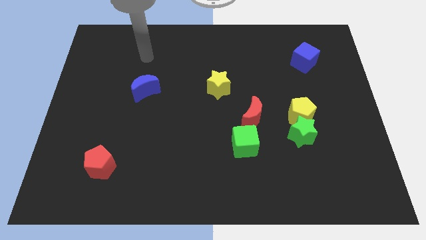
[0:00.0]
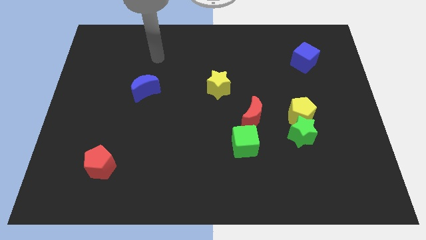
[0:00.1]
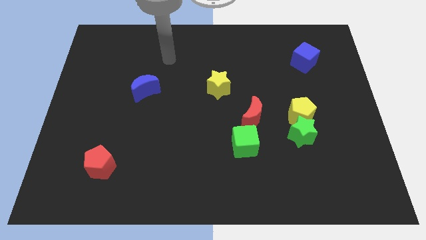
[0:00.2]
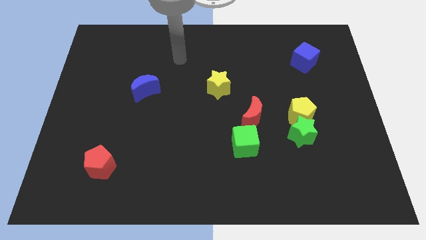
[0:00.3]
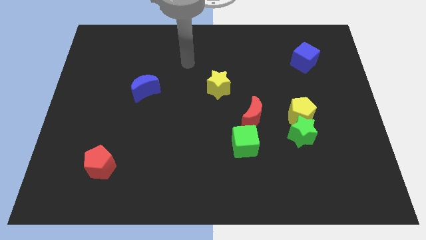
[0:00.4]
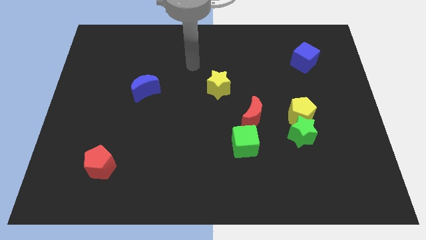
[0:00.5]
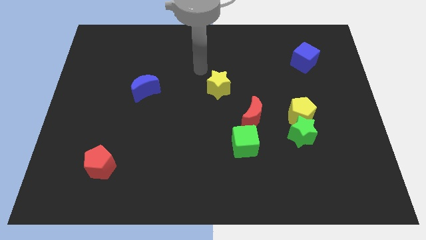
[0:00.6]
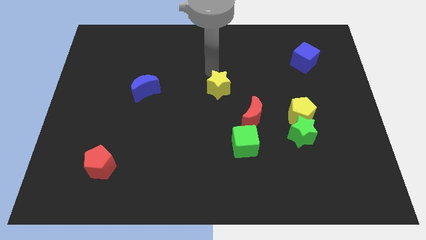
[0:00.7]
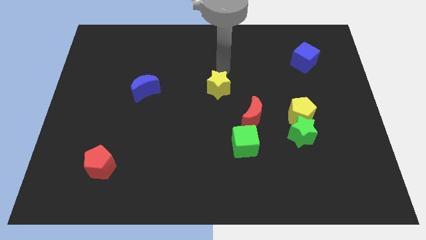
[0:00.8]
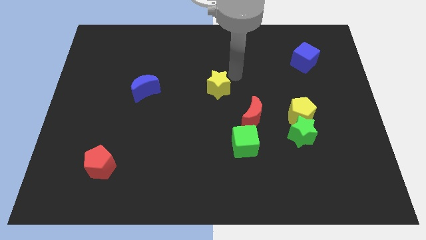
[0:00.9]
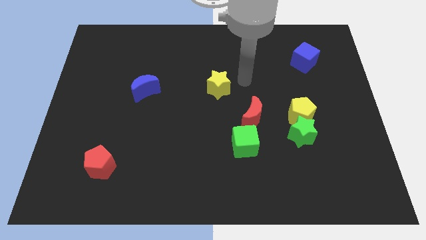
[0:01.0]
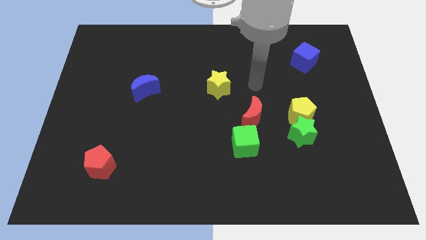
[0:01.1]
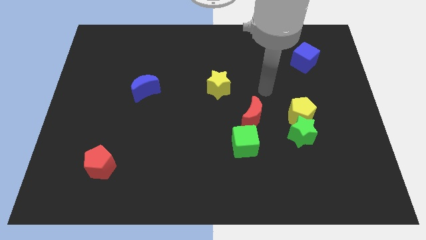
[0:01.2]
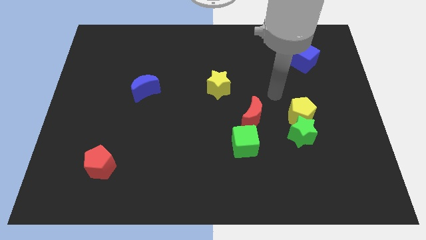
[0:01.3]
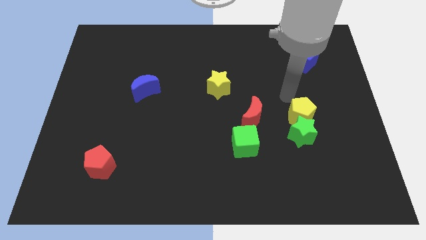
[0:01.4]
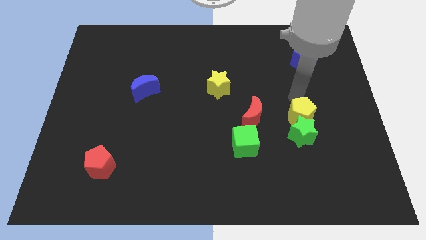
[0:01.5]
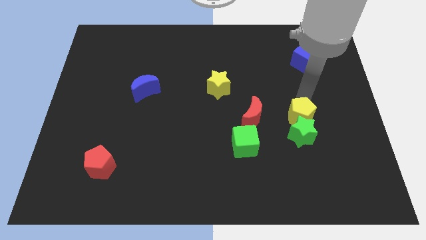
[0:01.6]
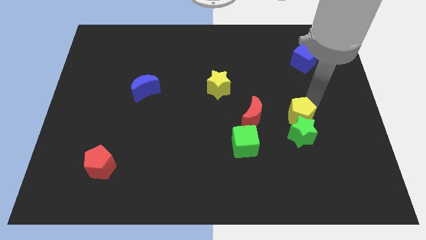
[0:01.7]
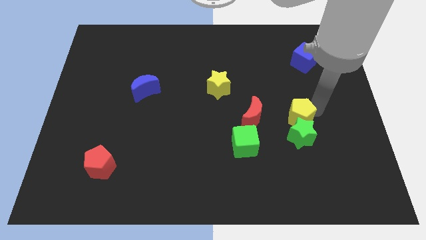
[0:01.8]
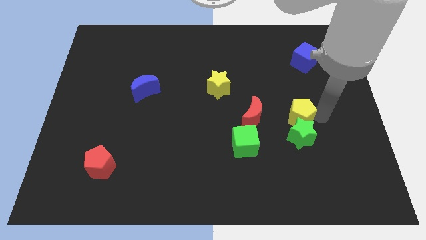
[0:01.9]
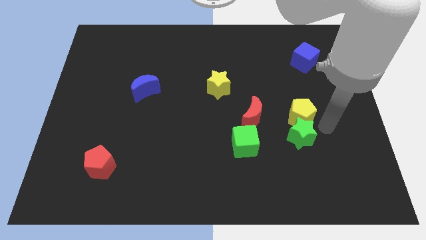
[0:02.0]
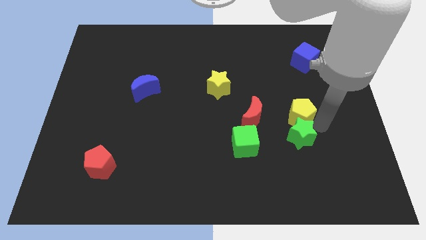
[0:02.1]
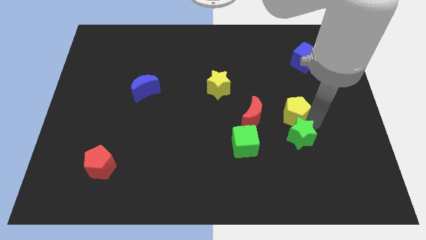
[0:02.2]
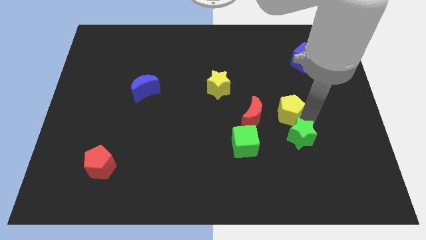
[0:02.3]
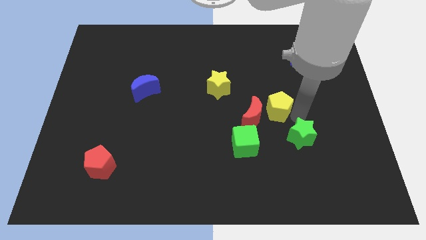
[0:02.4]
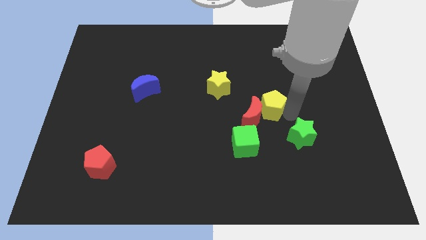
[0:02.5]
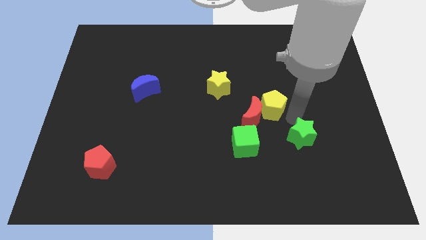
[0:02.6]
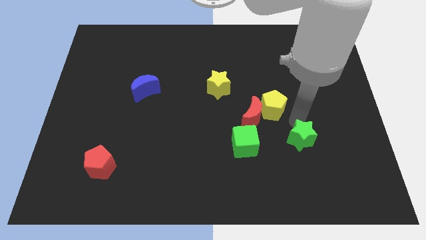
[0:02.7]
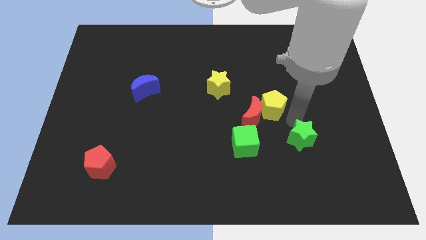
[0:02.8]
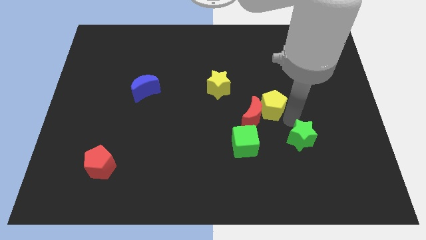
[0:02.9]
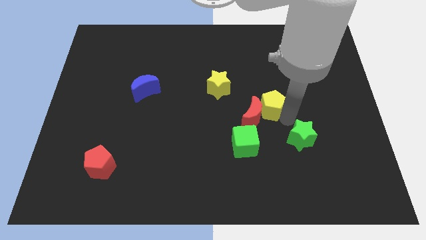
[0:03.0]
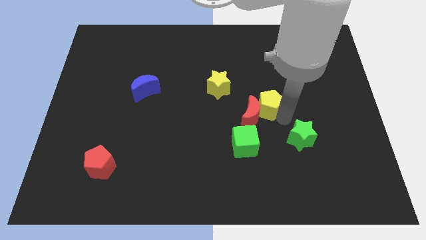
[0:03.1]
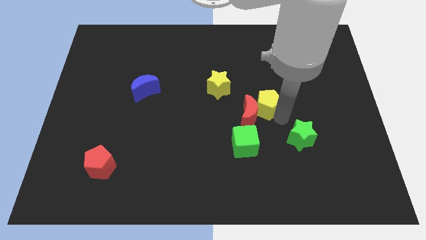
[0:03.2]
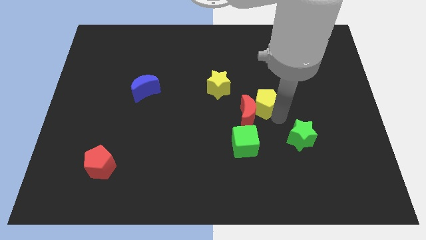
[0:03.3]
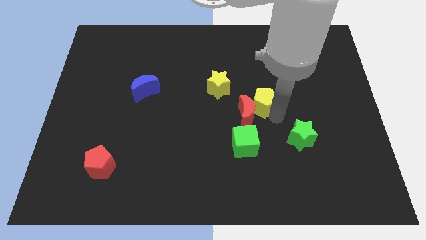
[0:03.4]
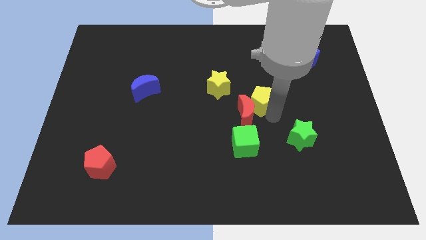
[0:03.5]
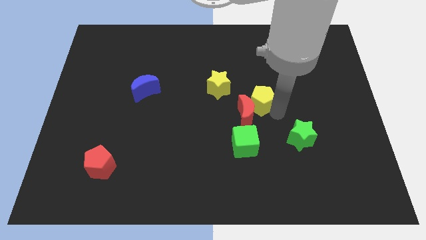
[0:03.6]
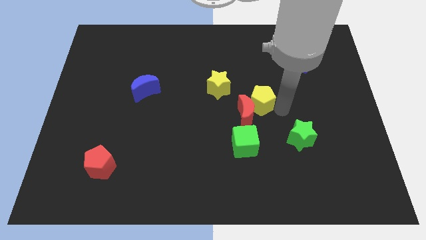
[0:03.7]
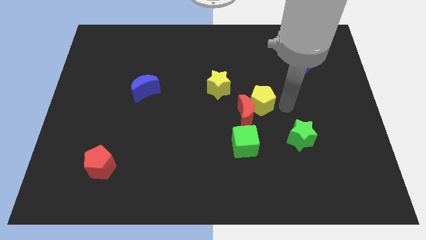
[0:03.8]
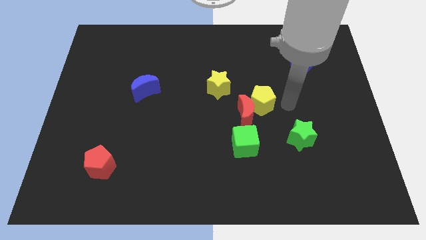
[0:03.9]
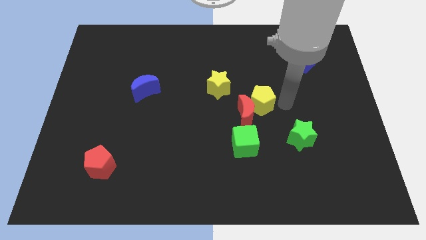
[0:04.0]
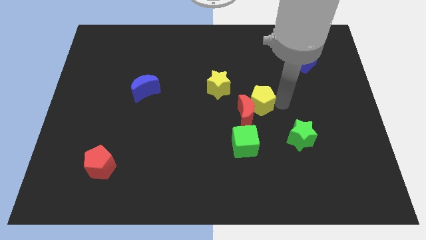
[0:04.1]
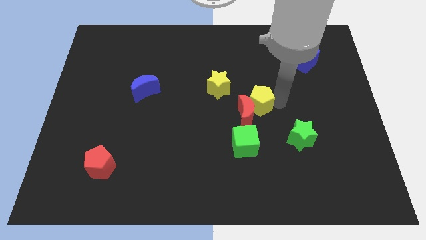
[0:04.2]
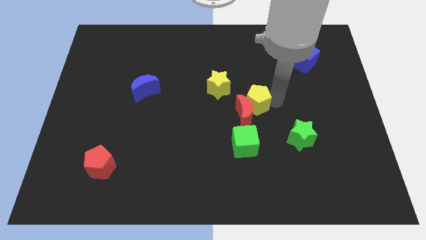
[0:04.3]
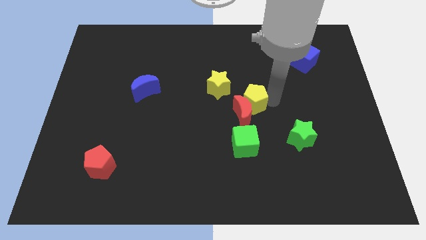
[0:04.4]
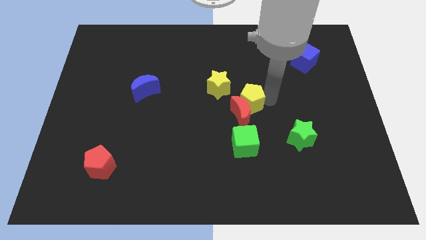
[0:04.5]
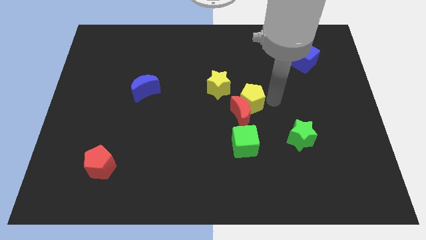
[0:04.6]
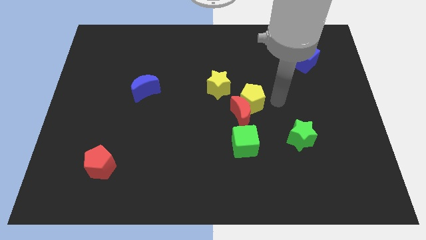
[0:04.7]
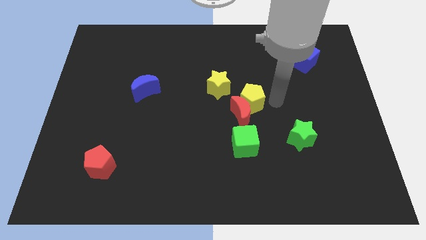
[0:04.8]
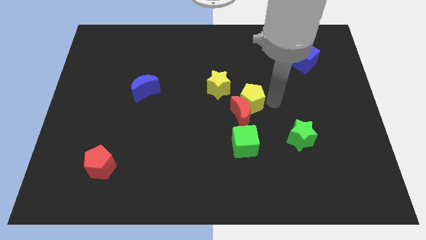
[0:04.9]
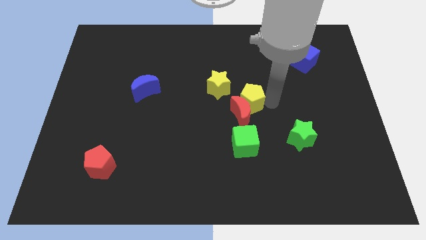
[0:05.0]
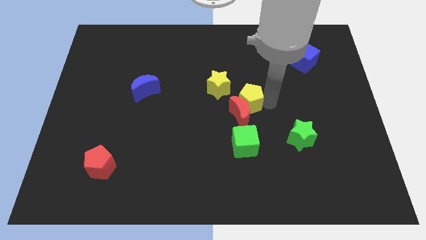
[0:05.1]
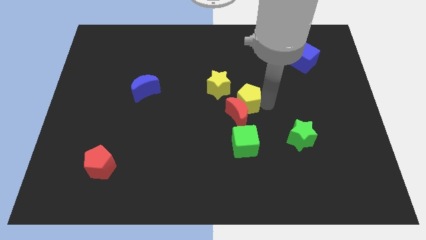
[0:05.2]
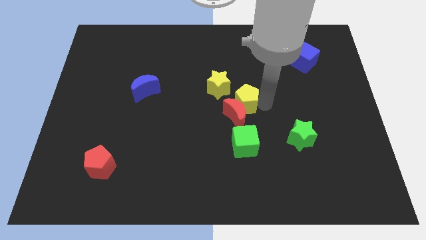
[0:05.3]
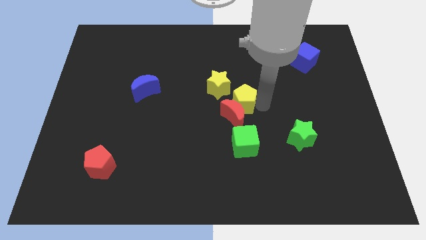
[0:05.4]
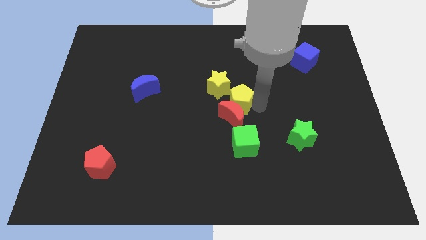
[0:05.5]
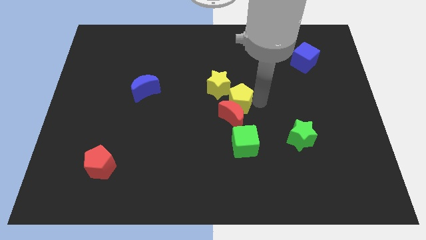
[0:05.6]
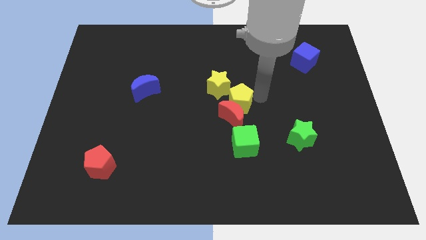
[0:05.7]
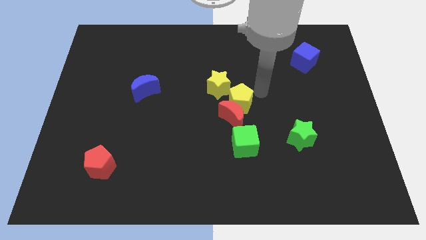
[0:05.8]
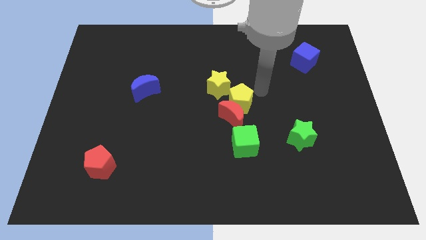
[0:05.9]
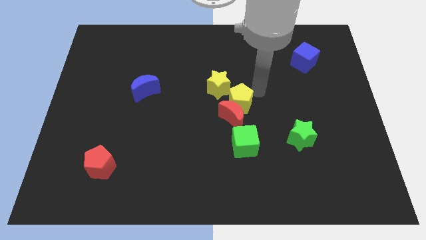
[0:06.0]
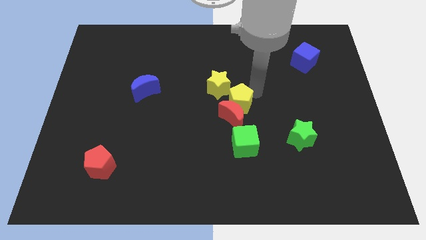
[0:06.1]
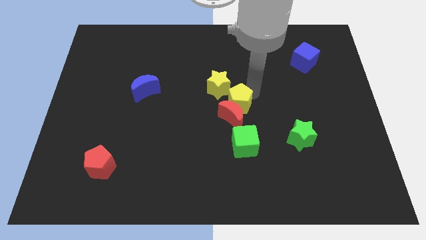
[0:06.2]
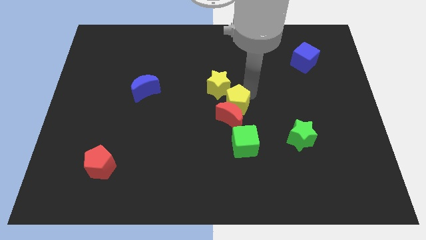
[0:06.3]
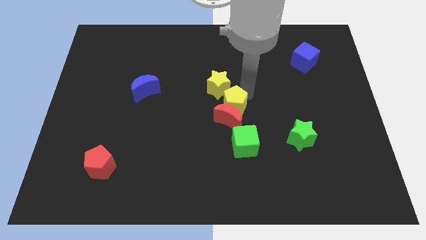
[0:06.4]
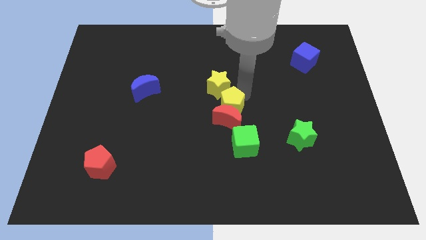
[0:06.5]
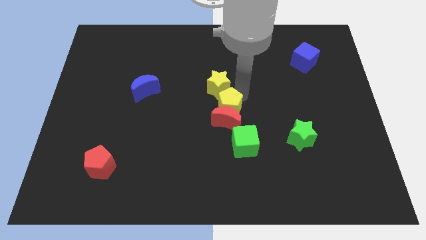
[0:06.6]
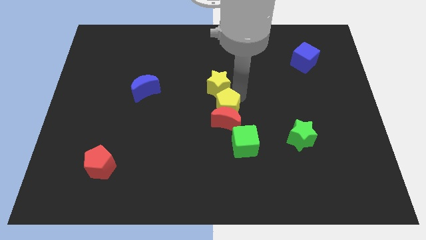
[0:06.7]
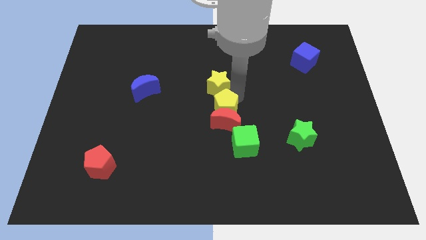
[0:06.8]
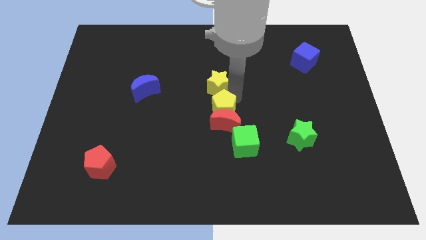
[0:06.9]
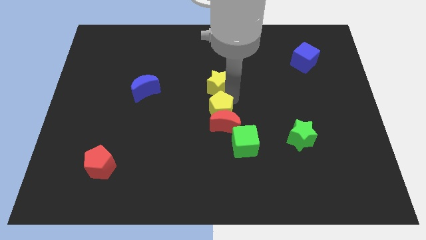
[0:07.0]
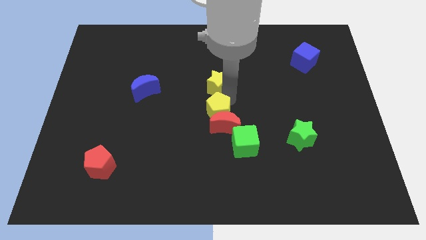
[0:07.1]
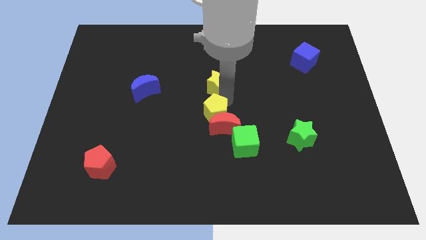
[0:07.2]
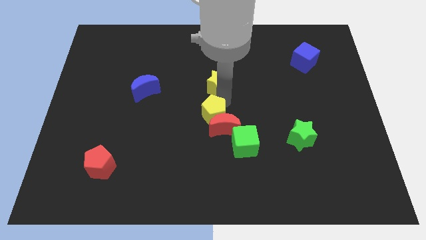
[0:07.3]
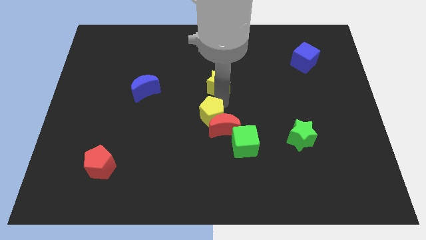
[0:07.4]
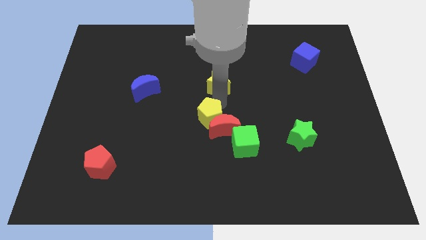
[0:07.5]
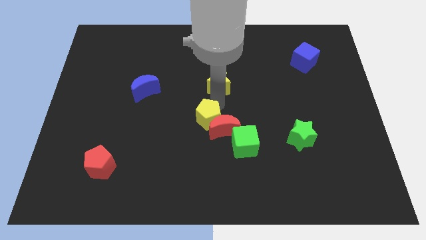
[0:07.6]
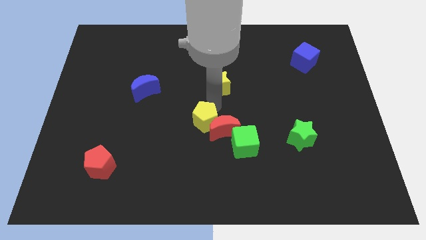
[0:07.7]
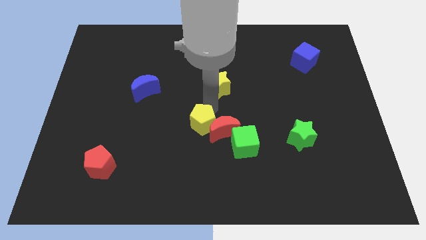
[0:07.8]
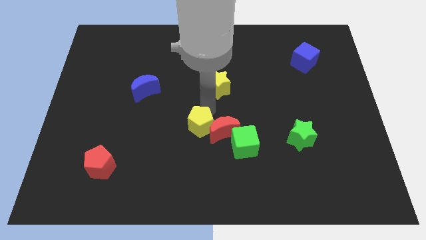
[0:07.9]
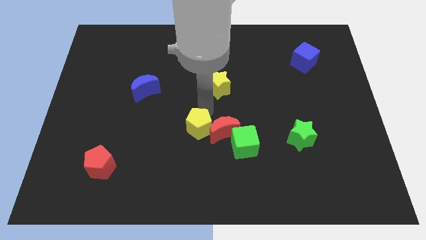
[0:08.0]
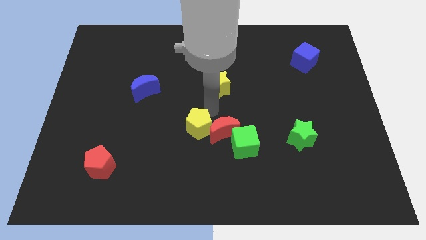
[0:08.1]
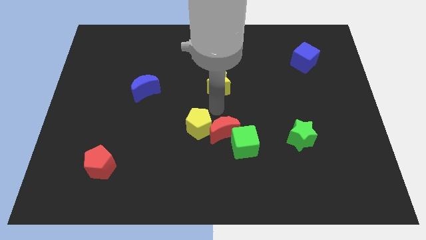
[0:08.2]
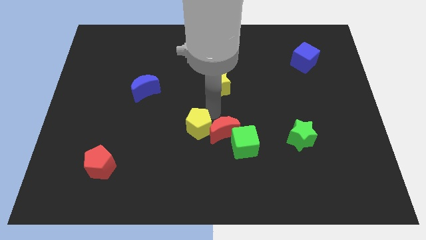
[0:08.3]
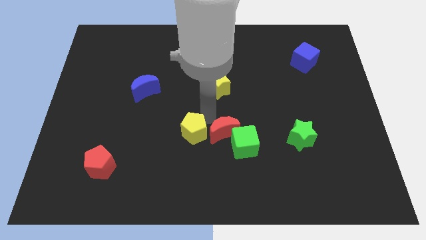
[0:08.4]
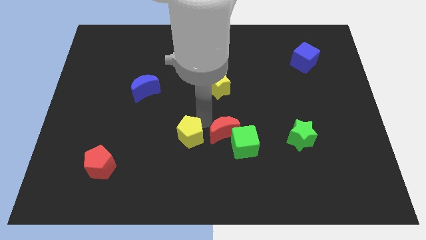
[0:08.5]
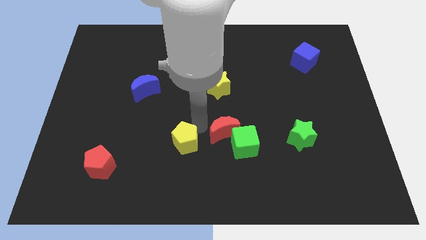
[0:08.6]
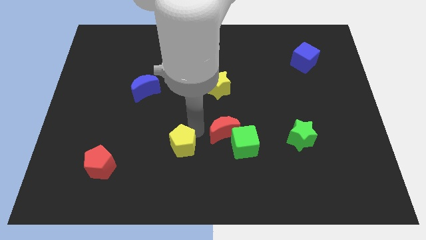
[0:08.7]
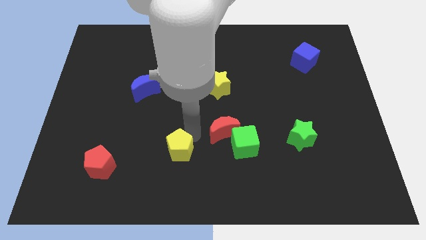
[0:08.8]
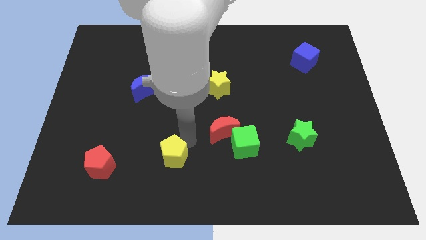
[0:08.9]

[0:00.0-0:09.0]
put the yellow pentagon just right of the red pentagon
